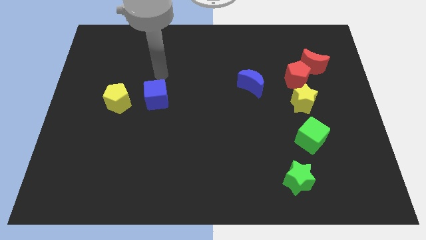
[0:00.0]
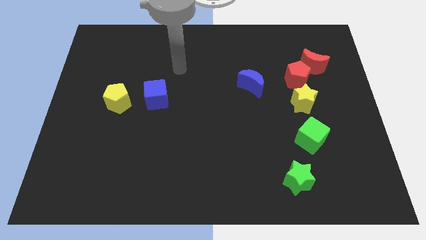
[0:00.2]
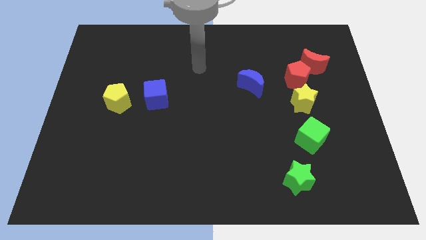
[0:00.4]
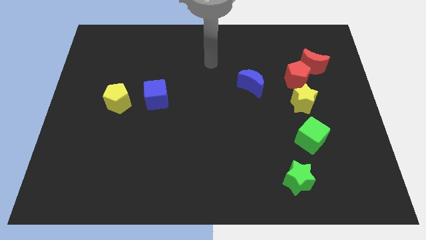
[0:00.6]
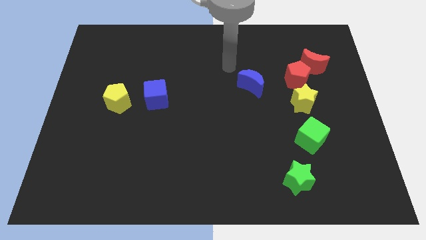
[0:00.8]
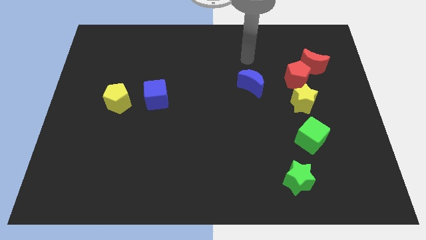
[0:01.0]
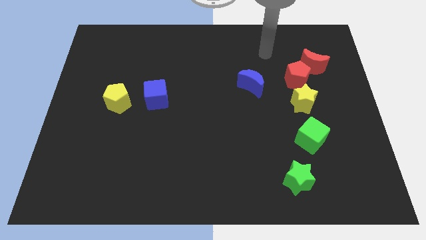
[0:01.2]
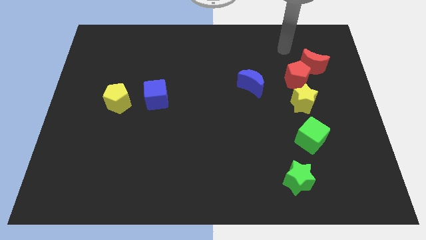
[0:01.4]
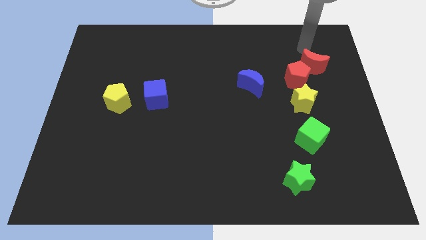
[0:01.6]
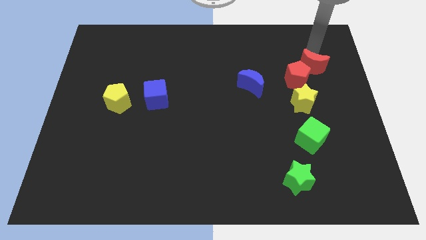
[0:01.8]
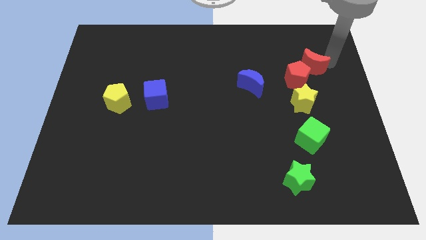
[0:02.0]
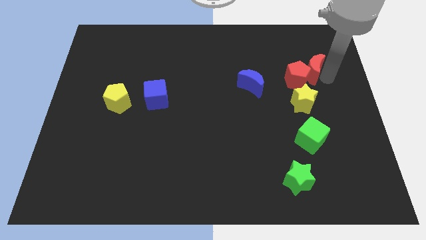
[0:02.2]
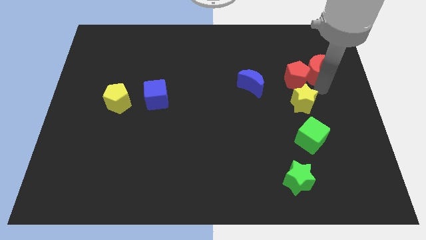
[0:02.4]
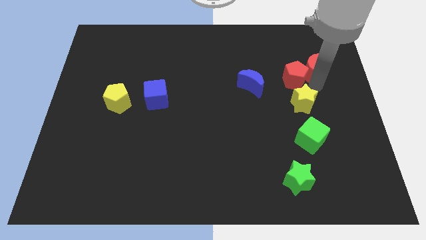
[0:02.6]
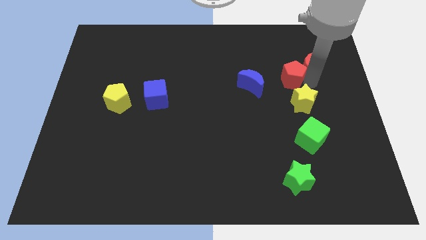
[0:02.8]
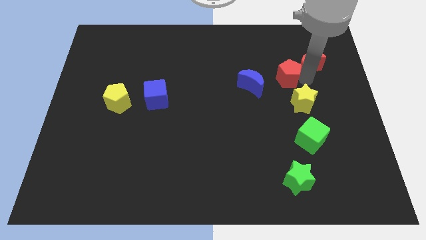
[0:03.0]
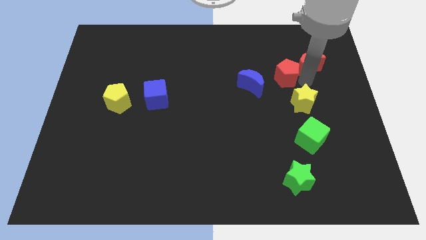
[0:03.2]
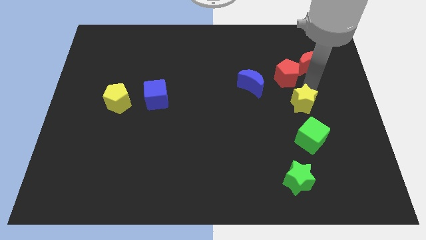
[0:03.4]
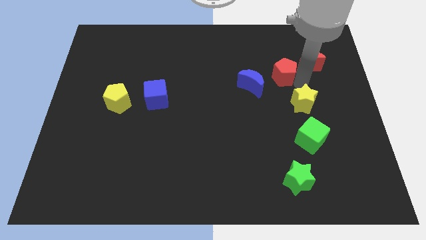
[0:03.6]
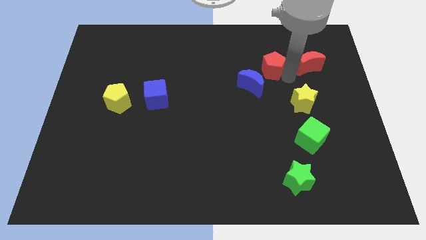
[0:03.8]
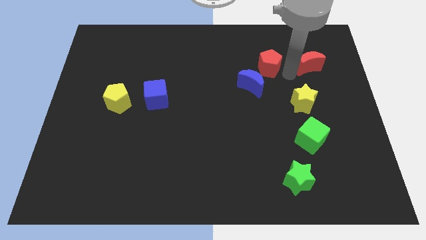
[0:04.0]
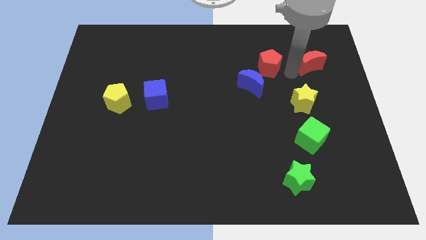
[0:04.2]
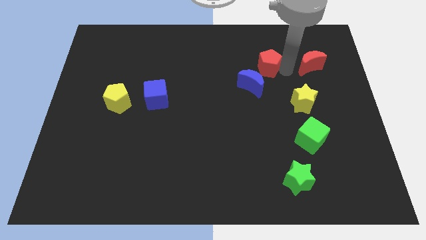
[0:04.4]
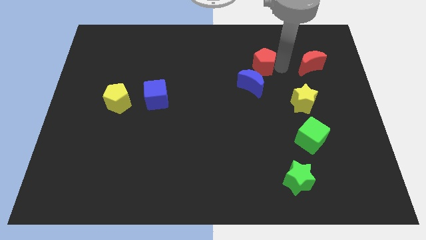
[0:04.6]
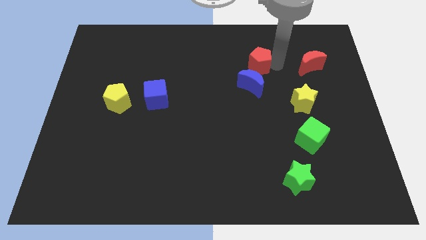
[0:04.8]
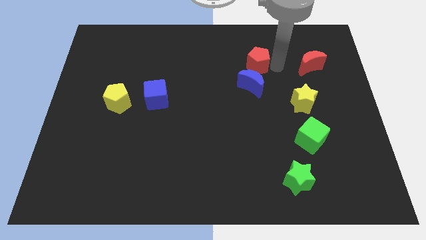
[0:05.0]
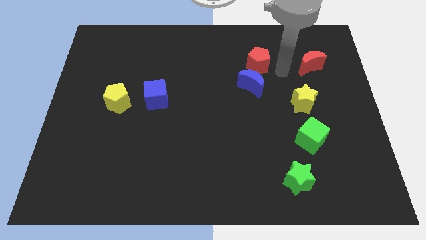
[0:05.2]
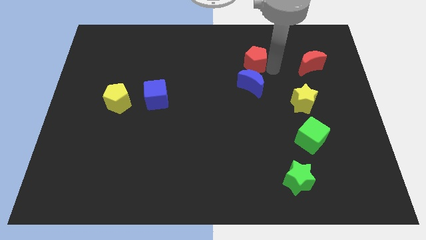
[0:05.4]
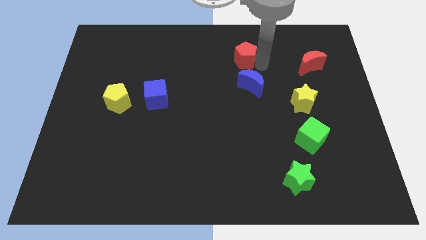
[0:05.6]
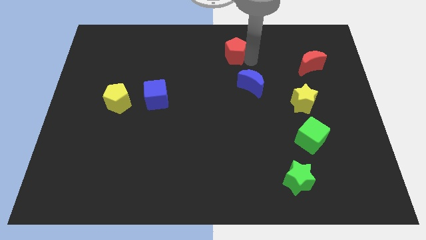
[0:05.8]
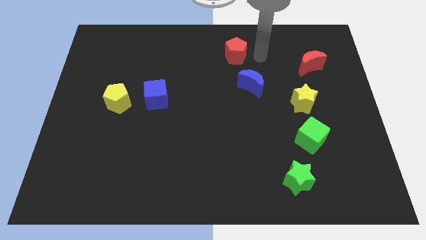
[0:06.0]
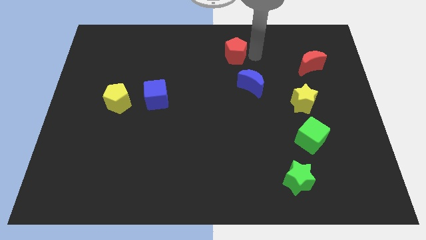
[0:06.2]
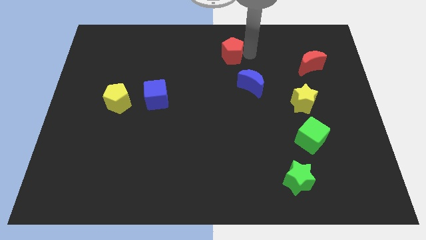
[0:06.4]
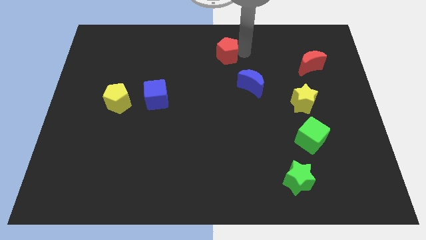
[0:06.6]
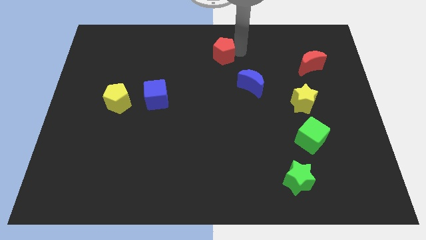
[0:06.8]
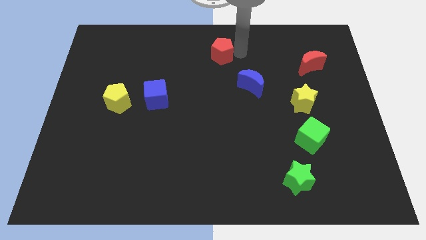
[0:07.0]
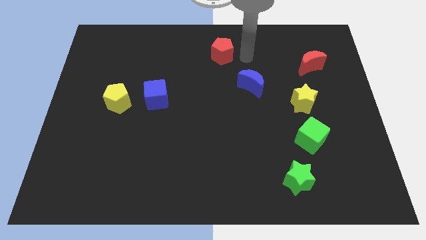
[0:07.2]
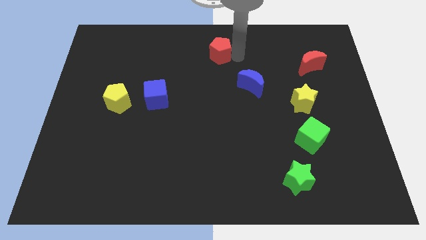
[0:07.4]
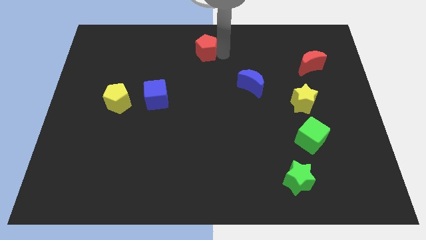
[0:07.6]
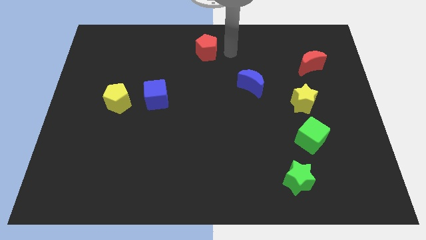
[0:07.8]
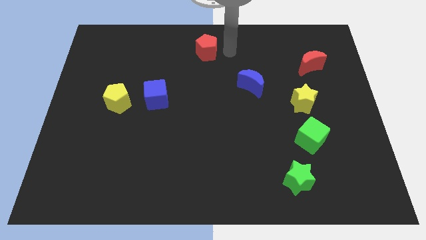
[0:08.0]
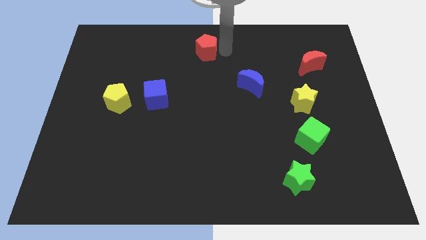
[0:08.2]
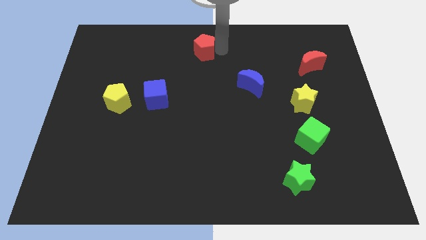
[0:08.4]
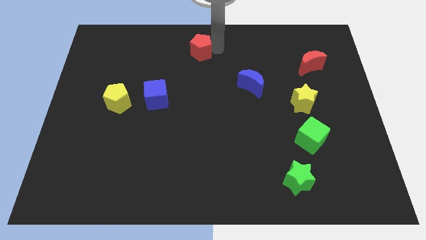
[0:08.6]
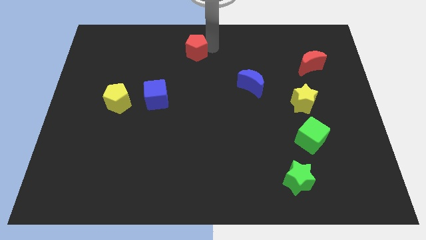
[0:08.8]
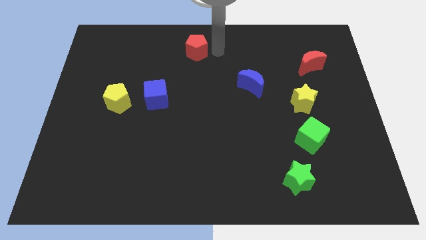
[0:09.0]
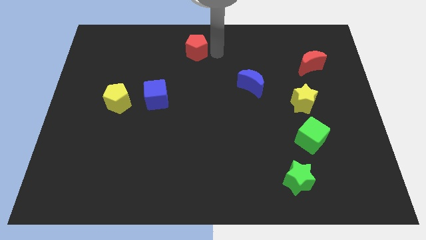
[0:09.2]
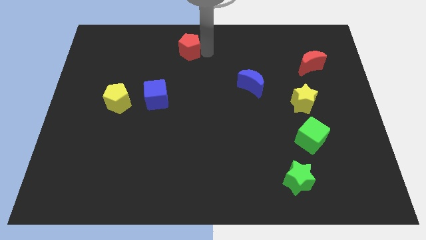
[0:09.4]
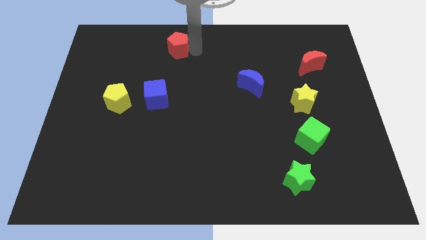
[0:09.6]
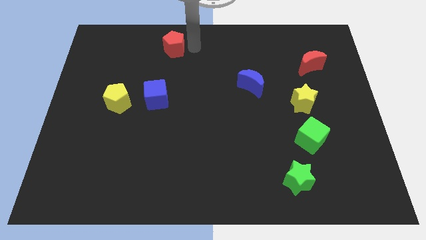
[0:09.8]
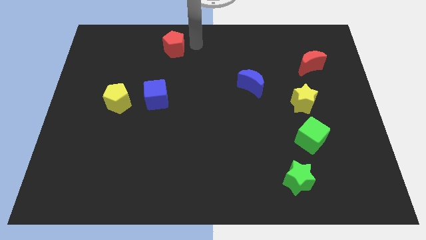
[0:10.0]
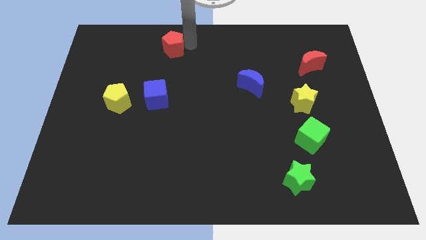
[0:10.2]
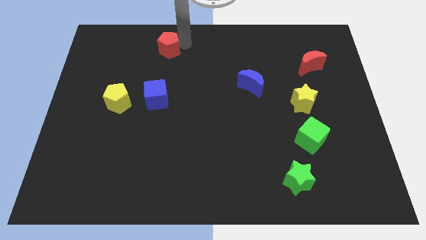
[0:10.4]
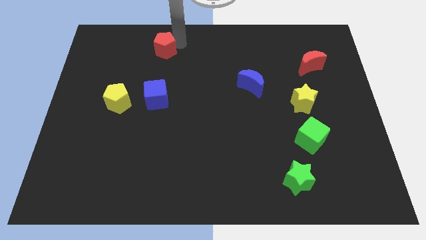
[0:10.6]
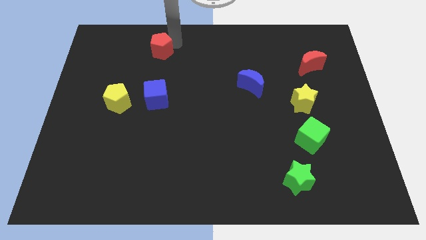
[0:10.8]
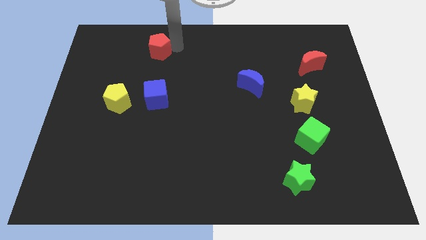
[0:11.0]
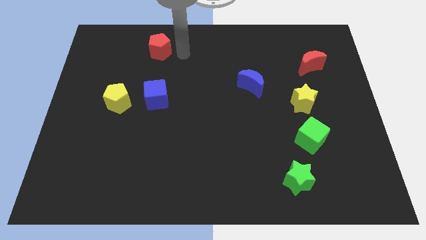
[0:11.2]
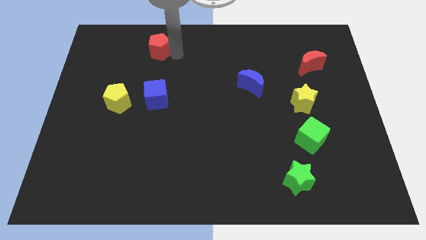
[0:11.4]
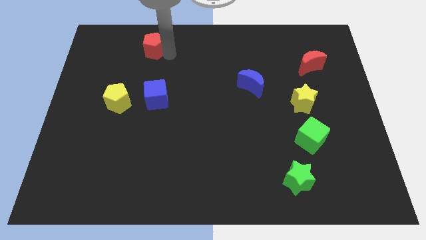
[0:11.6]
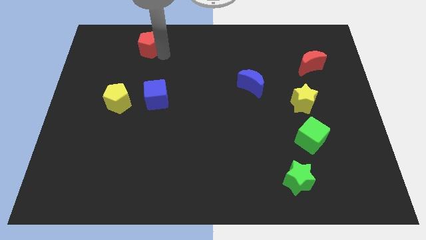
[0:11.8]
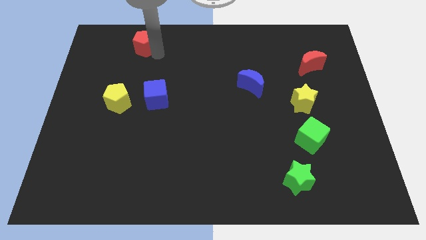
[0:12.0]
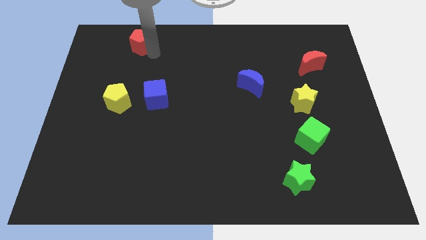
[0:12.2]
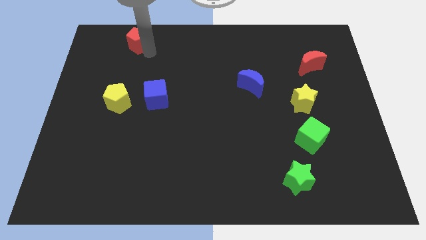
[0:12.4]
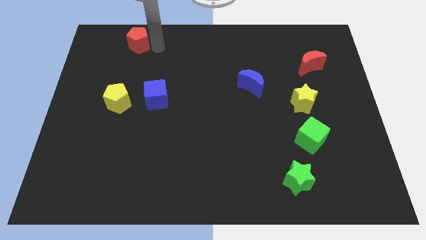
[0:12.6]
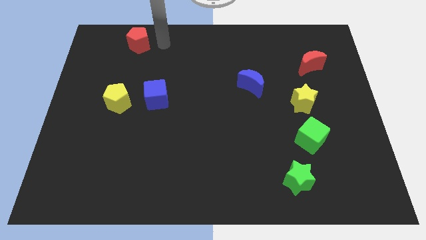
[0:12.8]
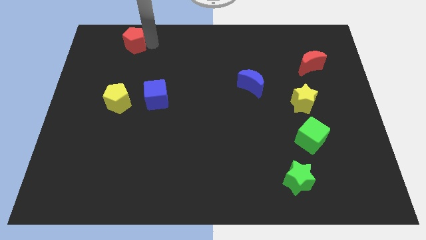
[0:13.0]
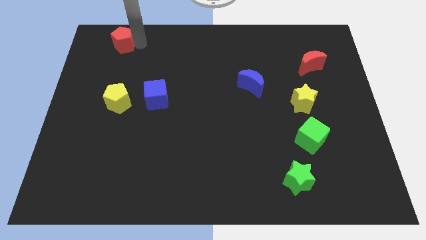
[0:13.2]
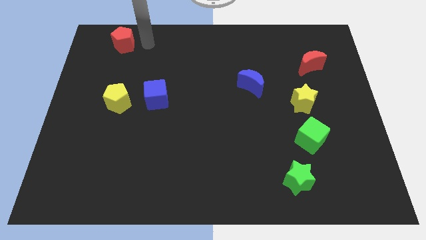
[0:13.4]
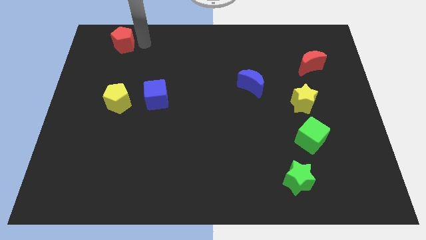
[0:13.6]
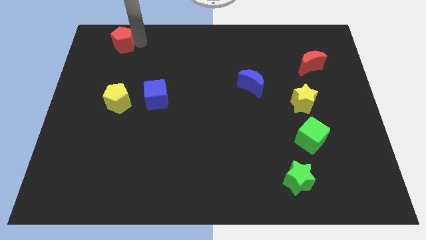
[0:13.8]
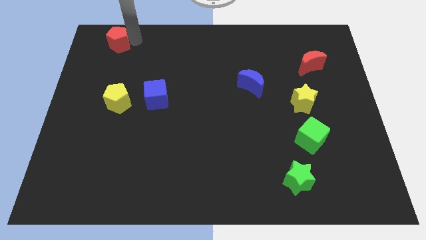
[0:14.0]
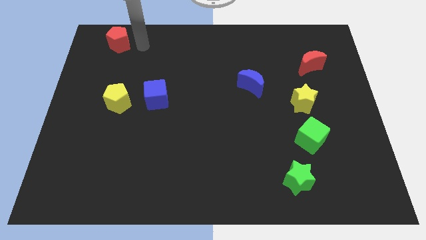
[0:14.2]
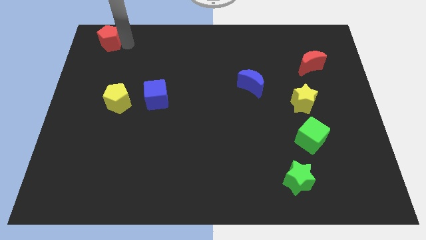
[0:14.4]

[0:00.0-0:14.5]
move the red pentagon to the top left corner
